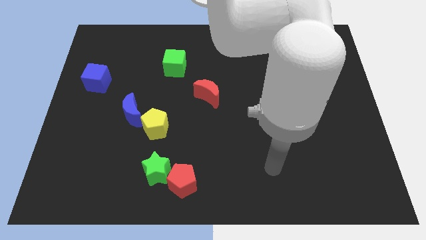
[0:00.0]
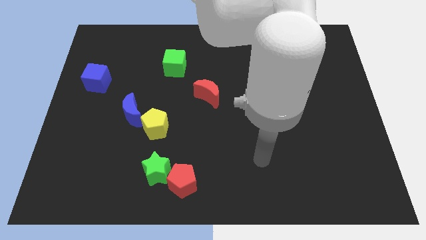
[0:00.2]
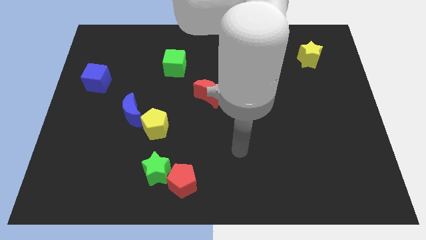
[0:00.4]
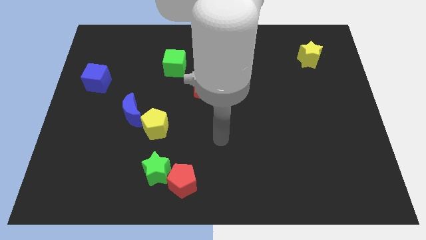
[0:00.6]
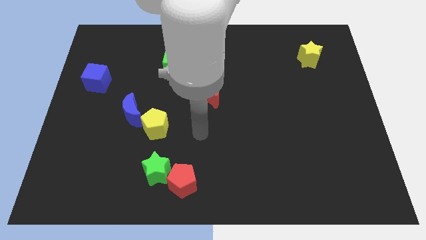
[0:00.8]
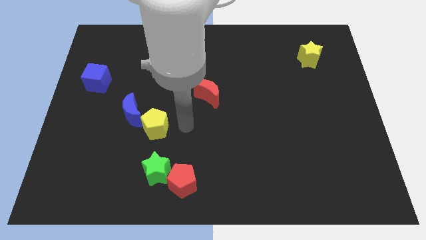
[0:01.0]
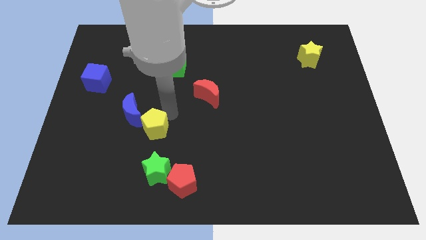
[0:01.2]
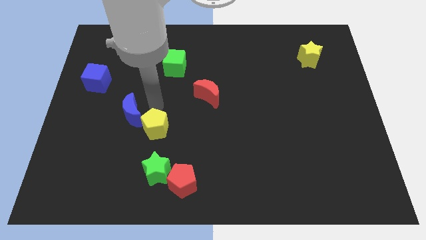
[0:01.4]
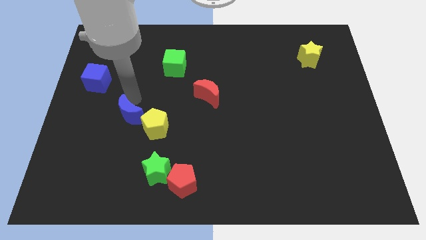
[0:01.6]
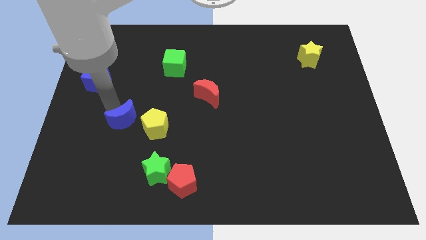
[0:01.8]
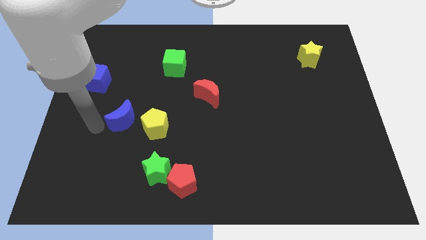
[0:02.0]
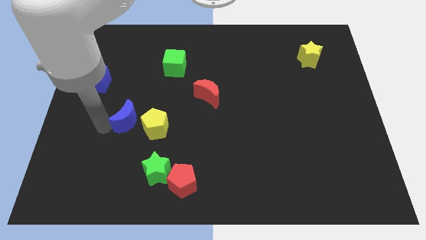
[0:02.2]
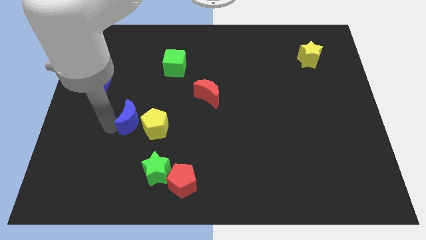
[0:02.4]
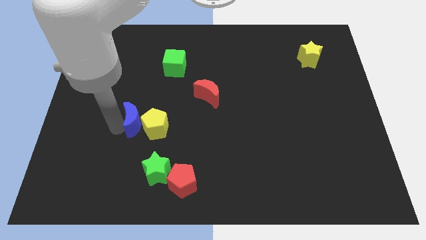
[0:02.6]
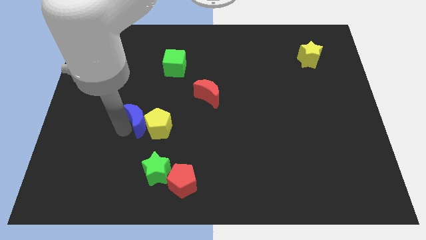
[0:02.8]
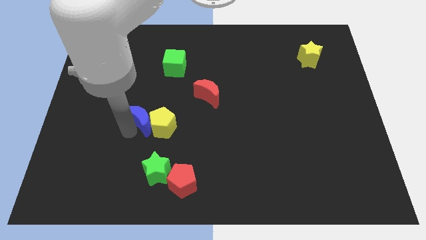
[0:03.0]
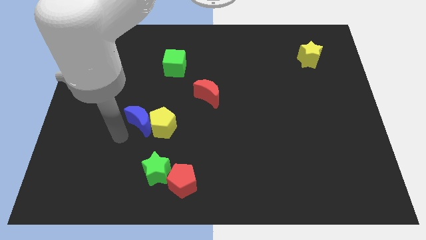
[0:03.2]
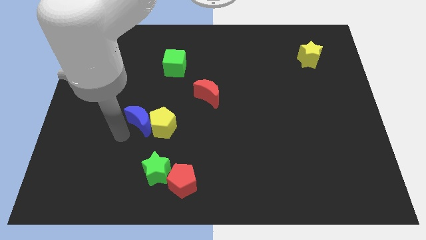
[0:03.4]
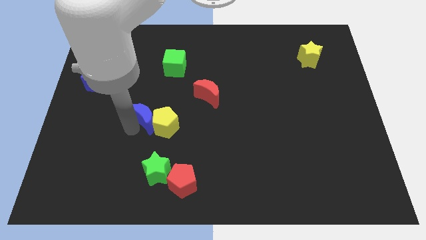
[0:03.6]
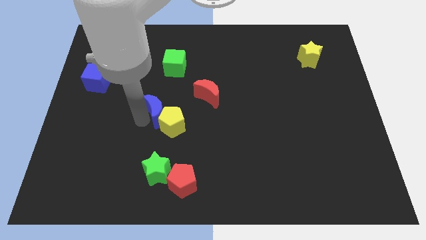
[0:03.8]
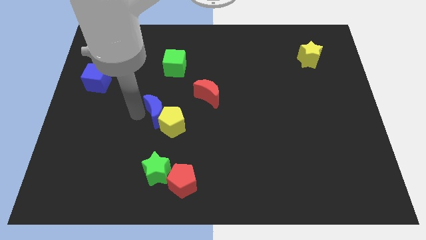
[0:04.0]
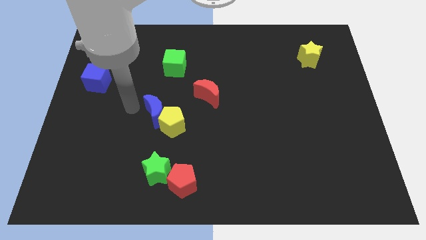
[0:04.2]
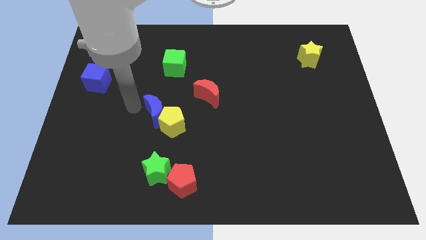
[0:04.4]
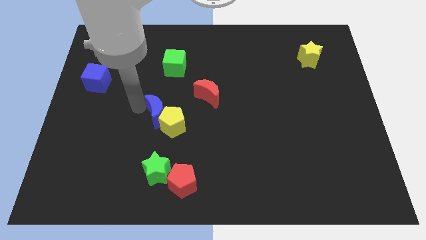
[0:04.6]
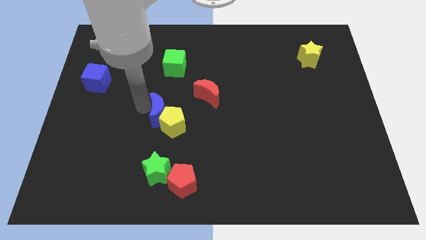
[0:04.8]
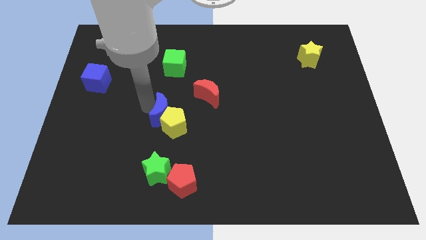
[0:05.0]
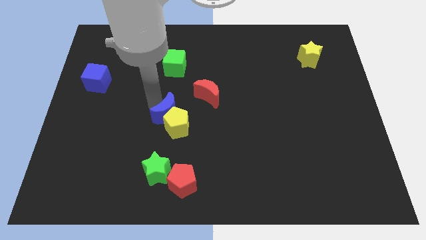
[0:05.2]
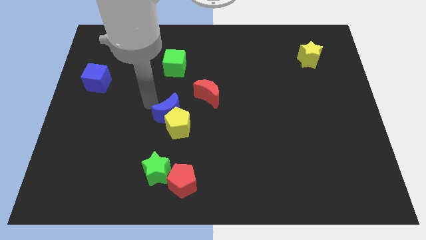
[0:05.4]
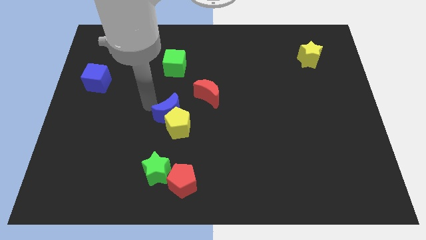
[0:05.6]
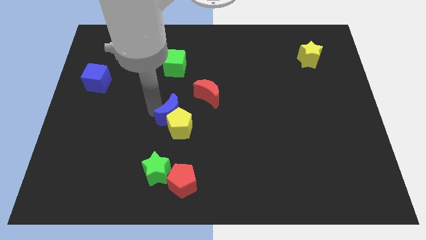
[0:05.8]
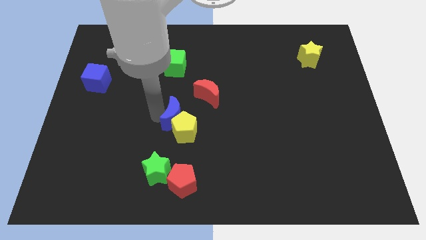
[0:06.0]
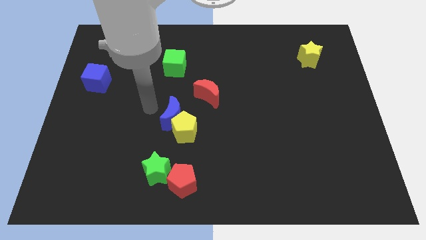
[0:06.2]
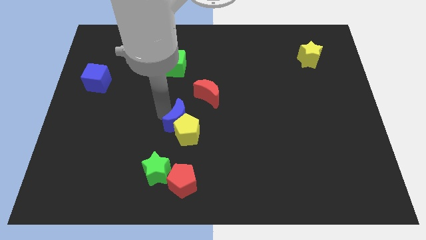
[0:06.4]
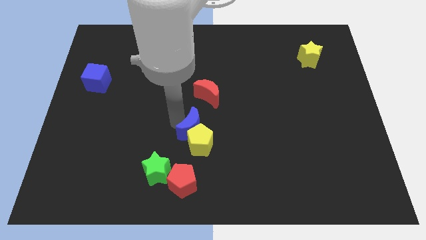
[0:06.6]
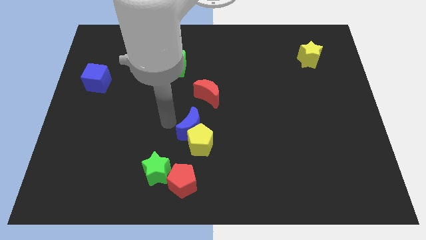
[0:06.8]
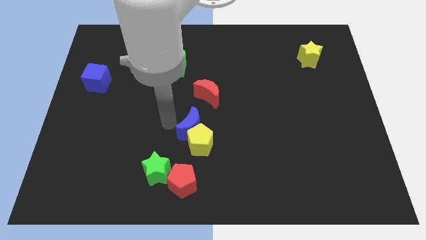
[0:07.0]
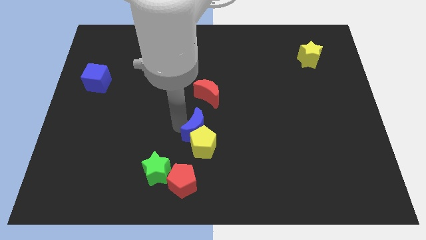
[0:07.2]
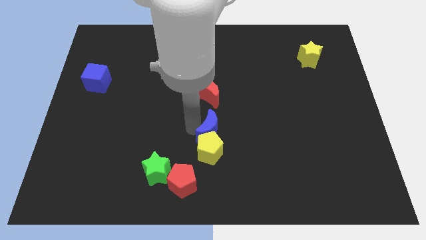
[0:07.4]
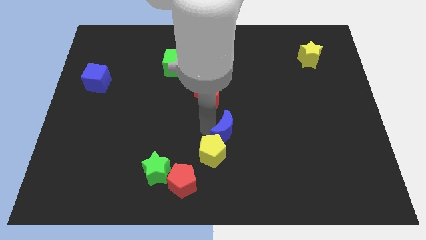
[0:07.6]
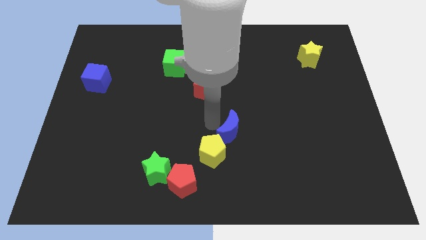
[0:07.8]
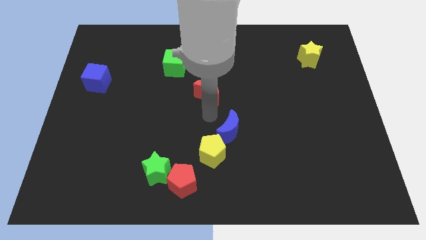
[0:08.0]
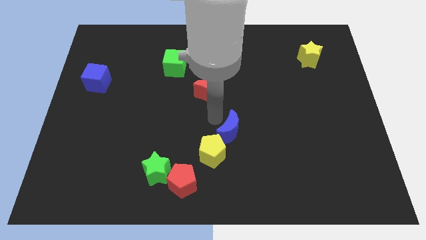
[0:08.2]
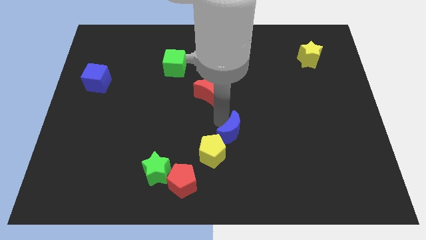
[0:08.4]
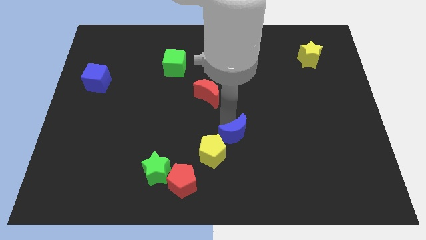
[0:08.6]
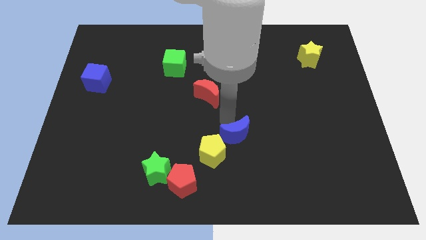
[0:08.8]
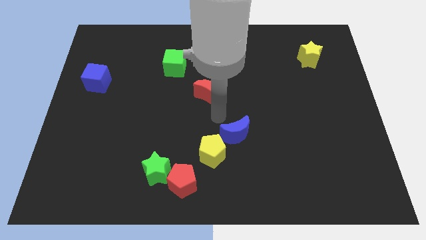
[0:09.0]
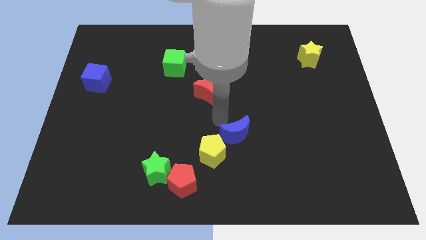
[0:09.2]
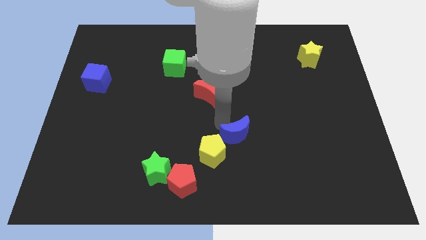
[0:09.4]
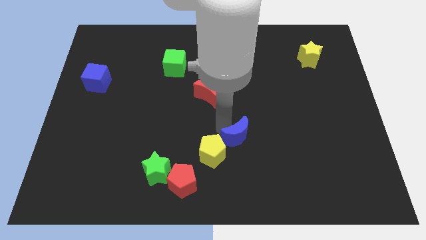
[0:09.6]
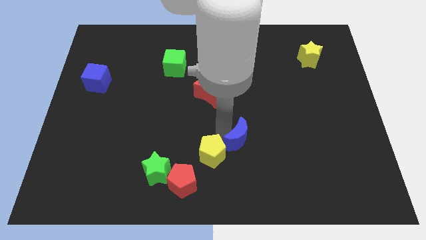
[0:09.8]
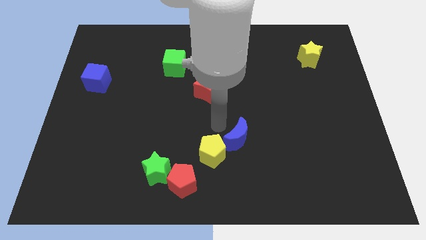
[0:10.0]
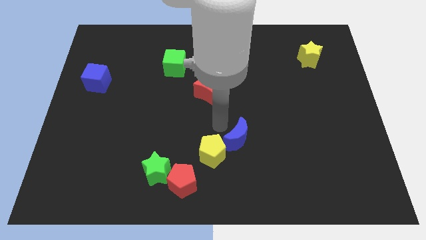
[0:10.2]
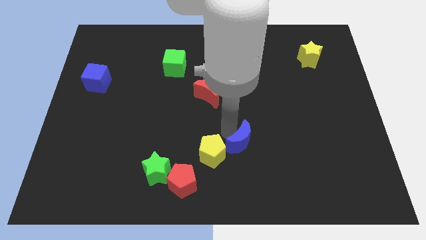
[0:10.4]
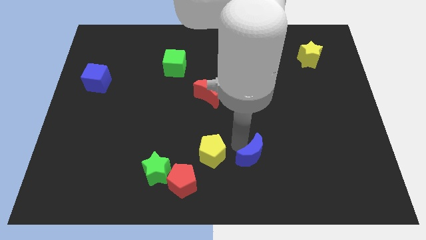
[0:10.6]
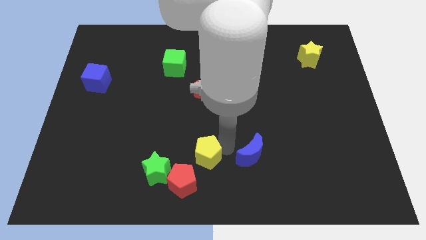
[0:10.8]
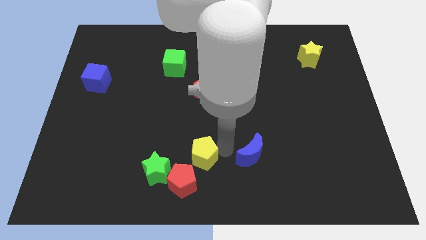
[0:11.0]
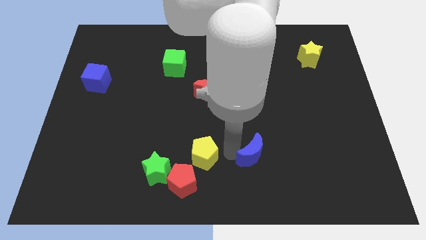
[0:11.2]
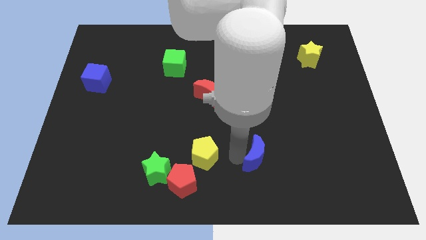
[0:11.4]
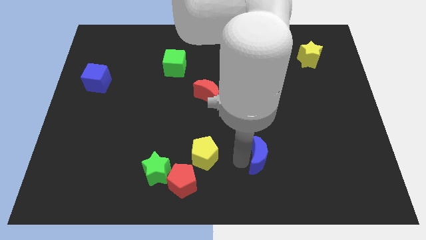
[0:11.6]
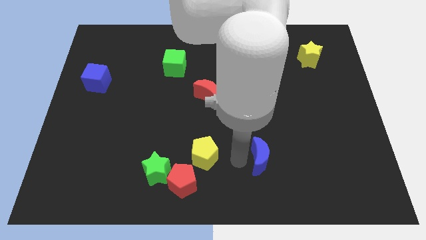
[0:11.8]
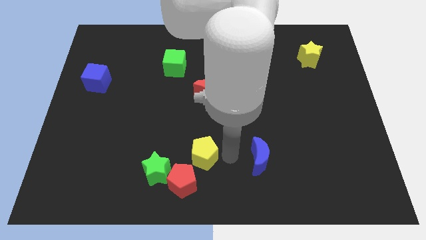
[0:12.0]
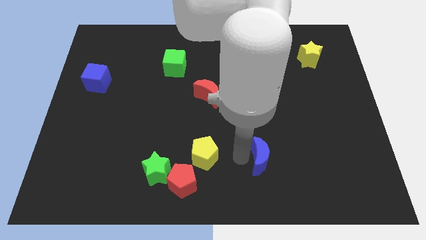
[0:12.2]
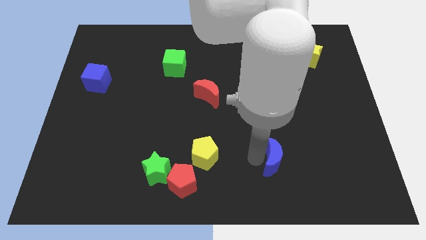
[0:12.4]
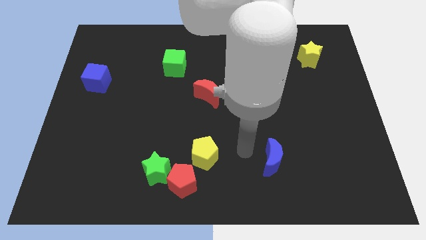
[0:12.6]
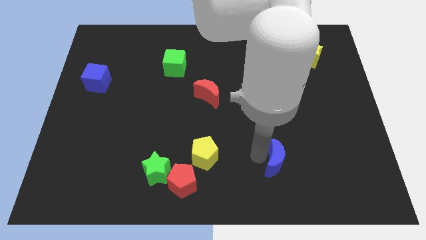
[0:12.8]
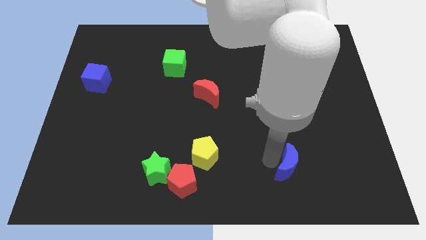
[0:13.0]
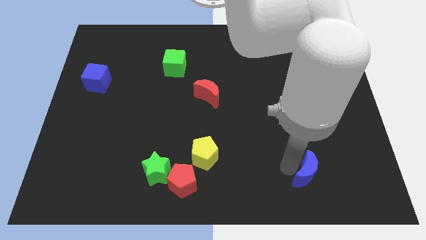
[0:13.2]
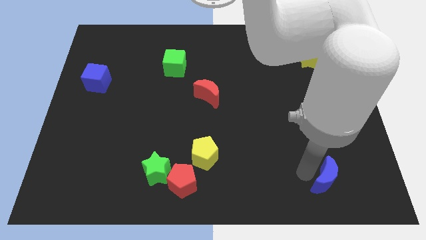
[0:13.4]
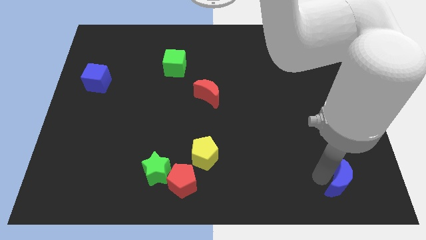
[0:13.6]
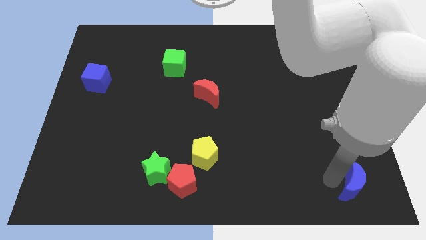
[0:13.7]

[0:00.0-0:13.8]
push the blue moon to the lower right corner
